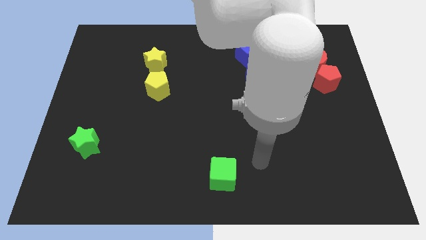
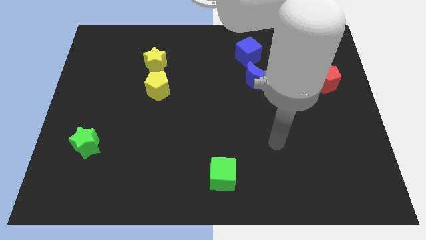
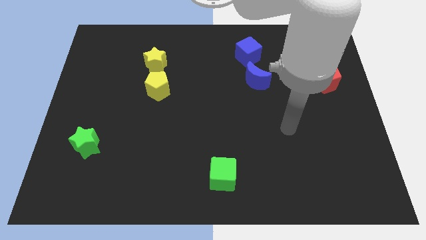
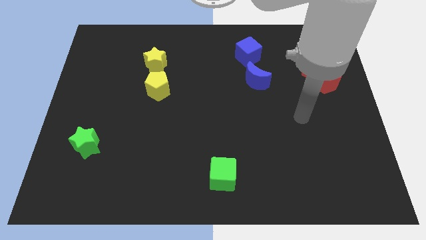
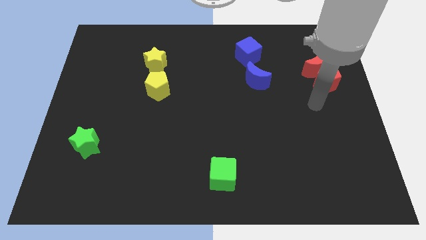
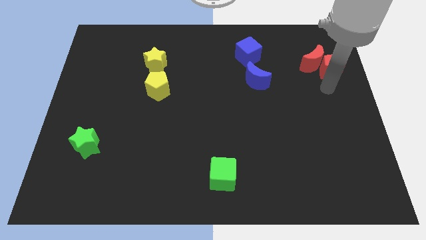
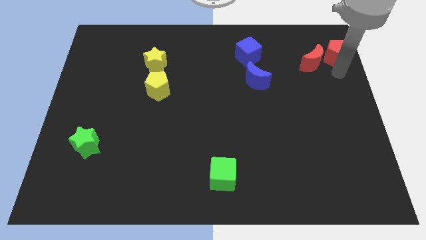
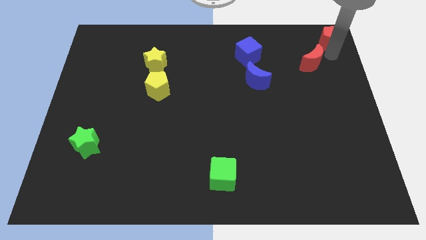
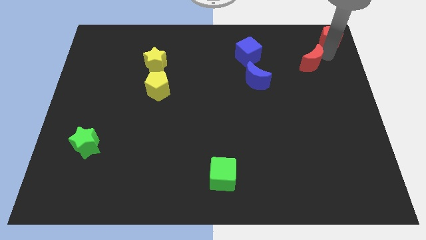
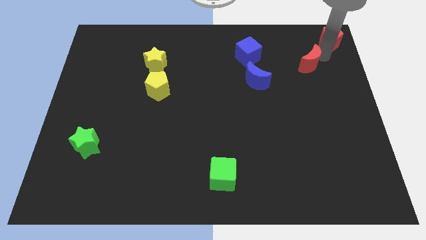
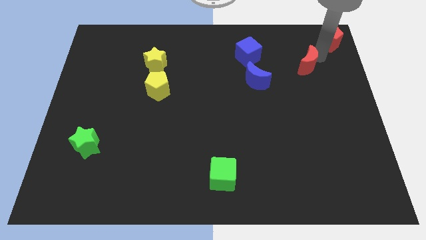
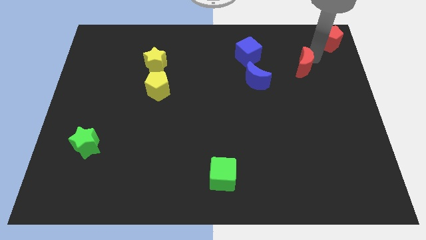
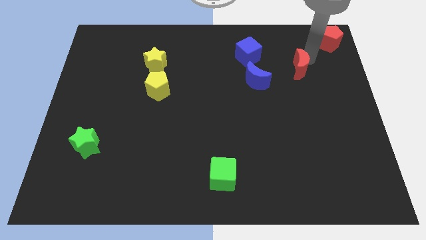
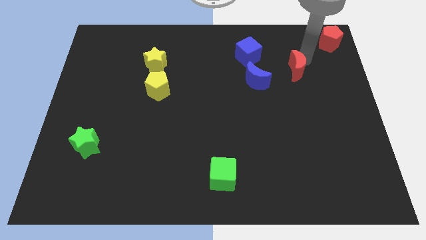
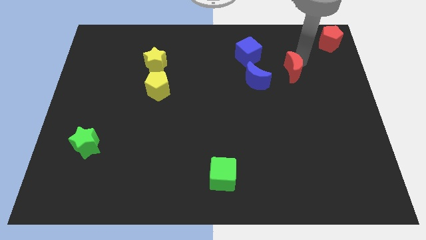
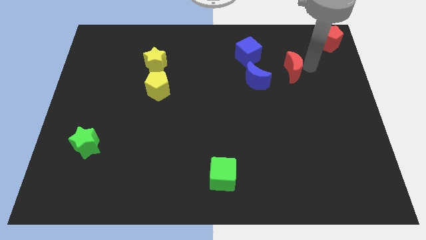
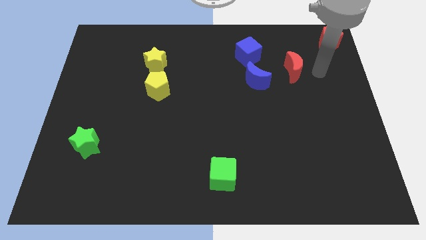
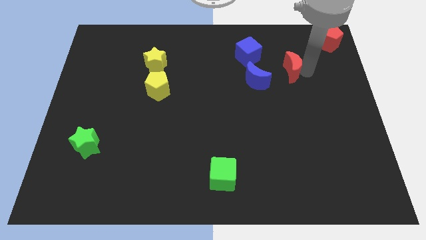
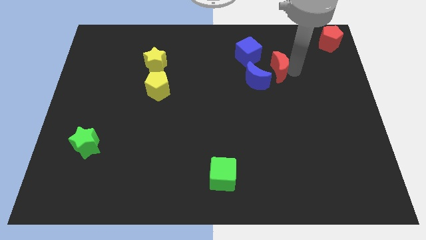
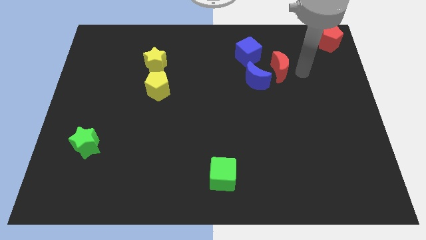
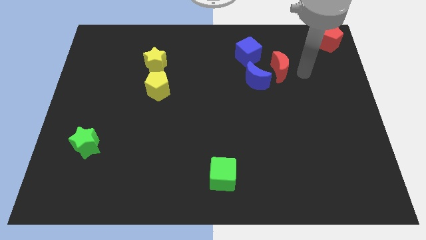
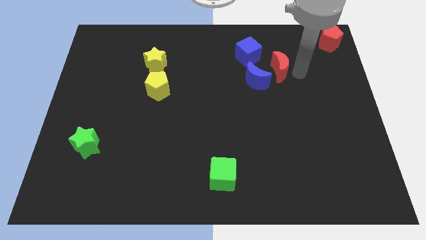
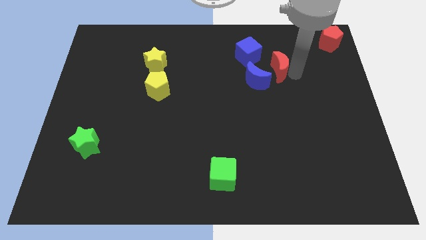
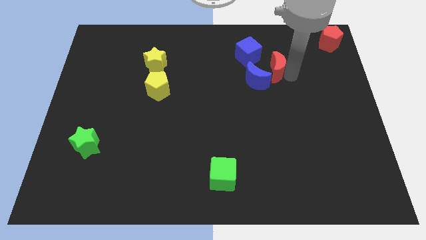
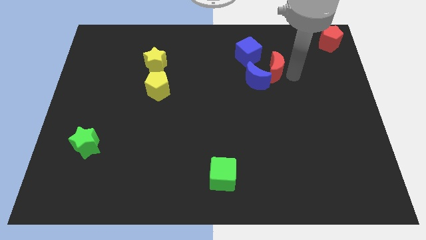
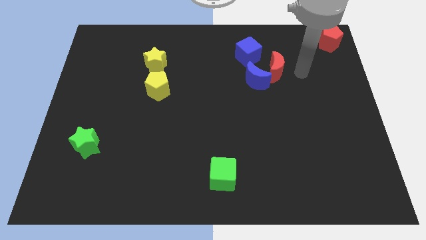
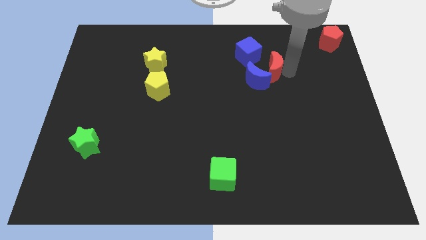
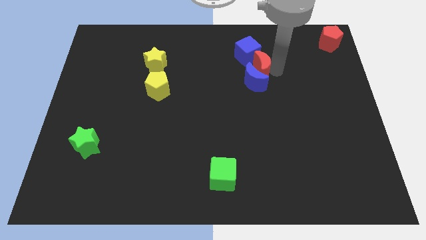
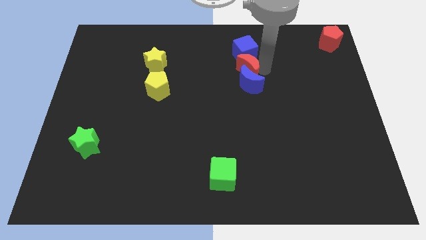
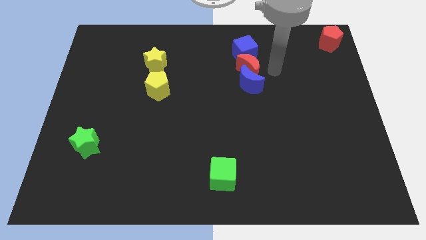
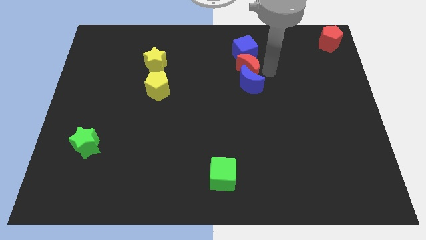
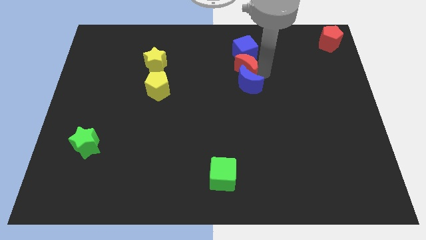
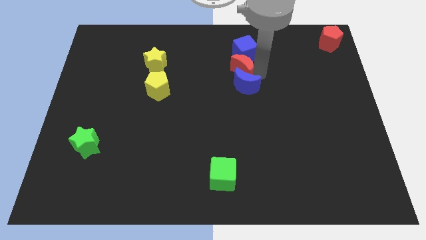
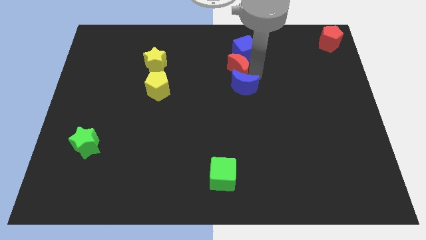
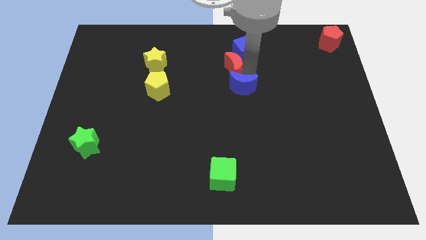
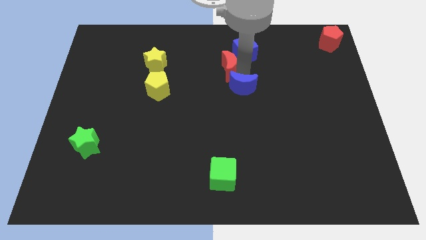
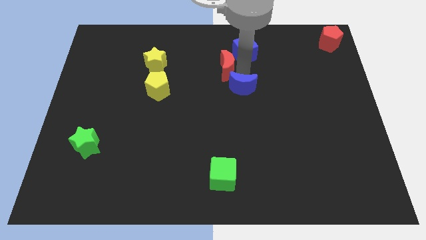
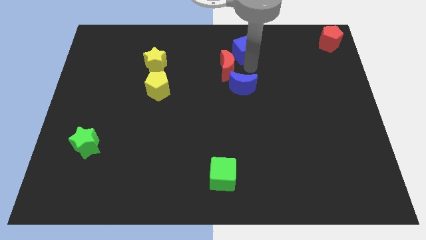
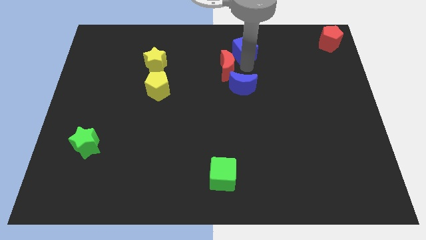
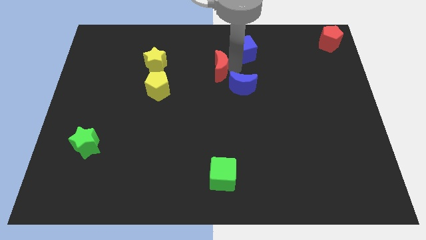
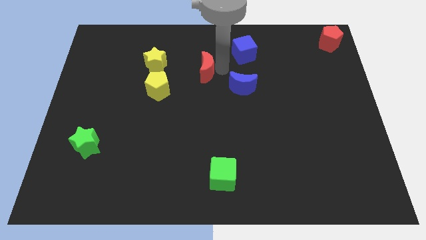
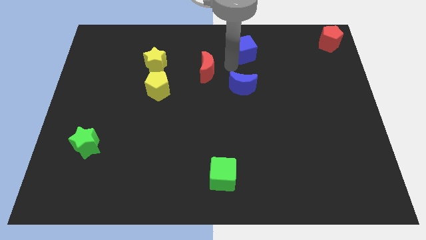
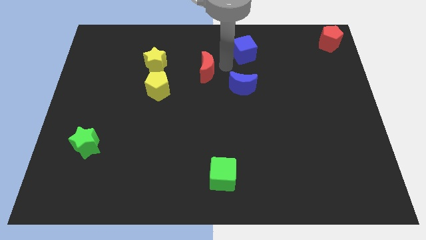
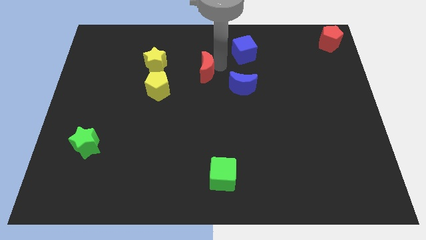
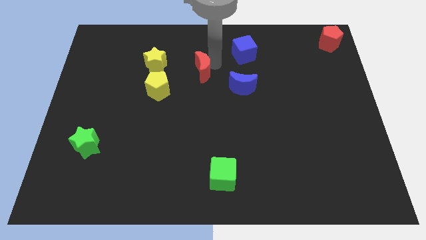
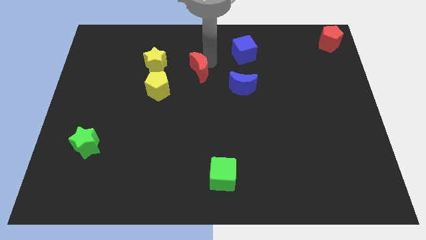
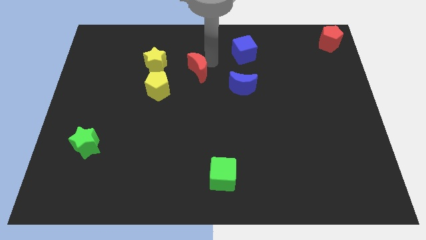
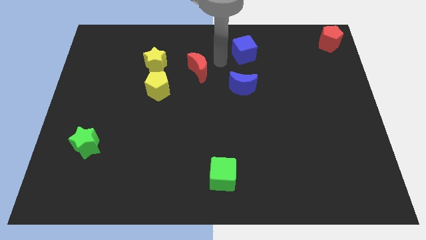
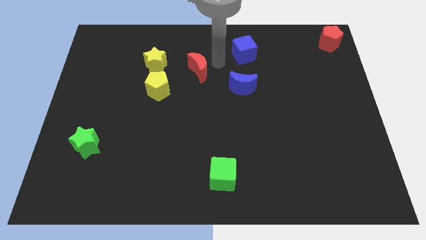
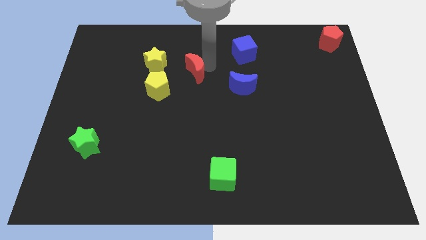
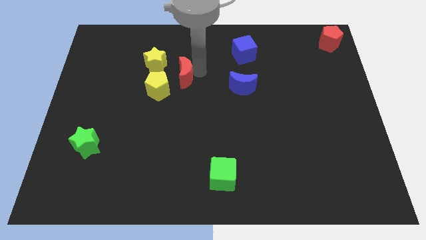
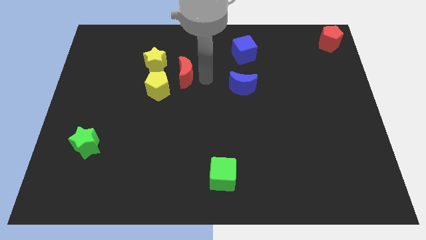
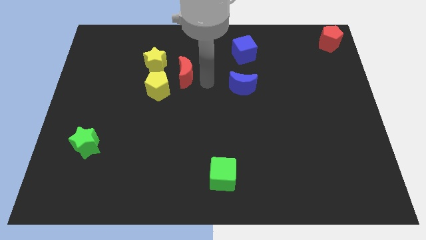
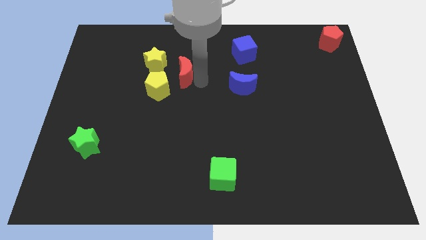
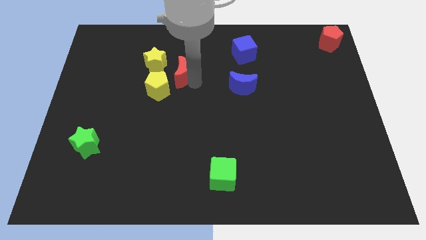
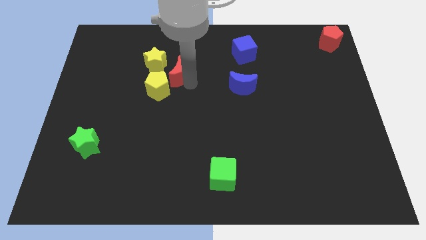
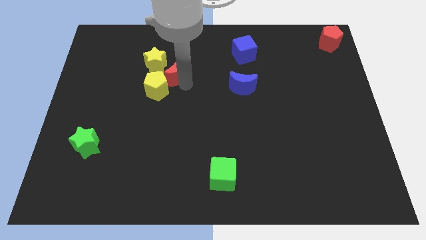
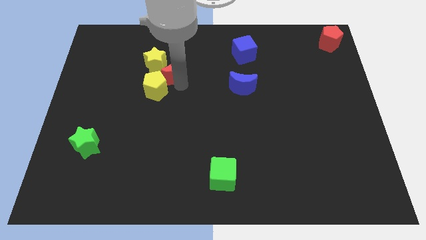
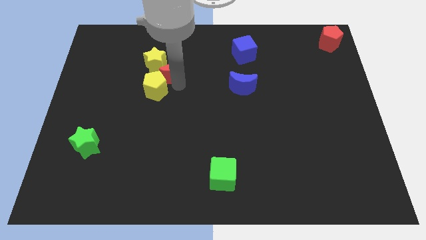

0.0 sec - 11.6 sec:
push the red moon to the yellow star

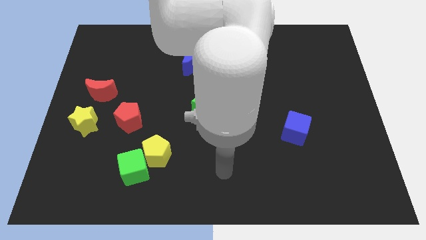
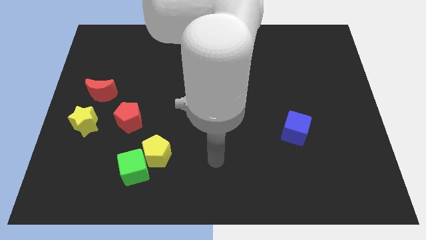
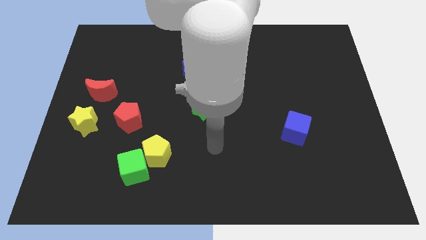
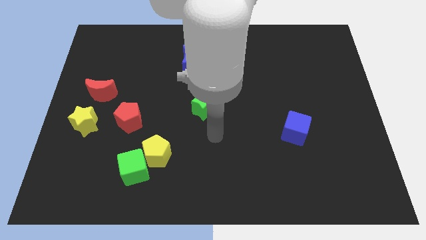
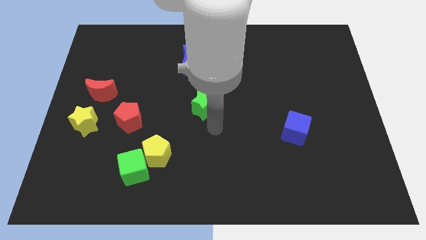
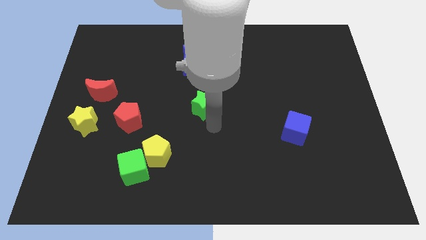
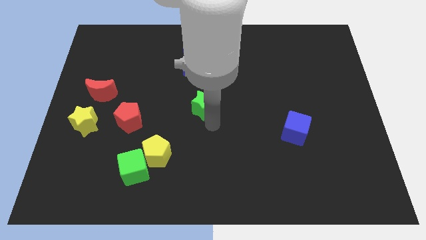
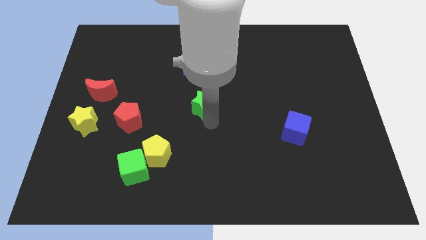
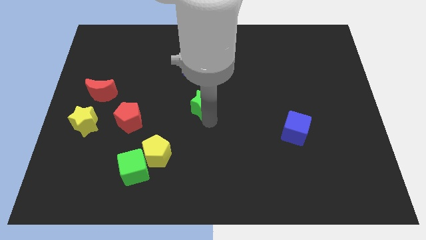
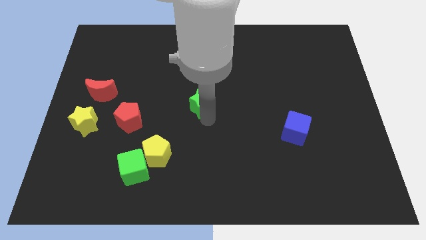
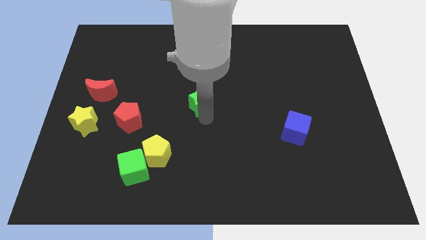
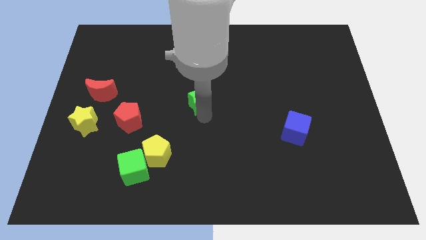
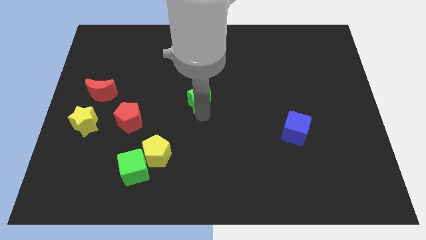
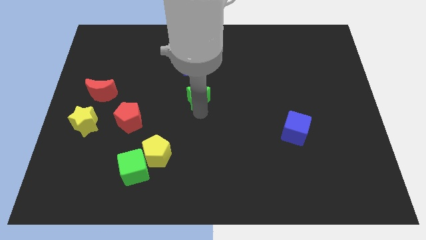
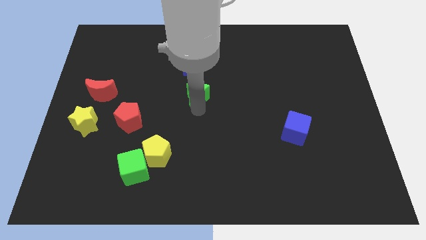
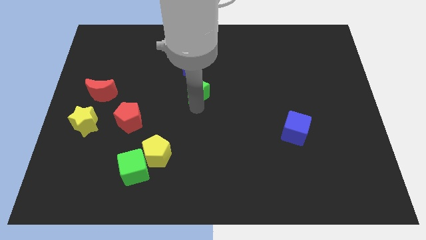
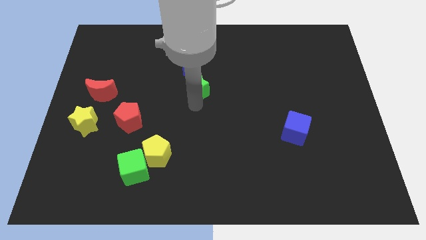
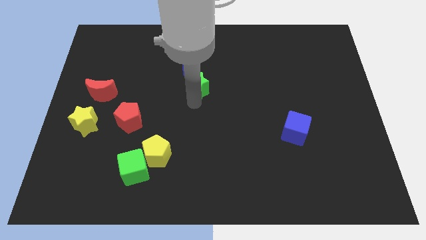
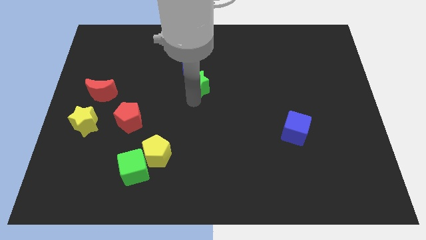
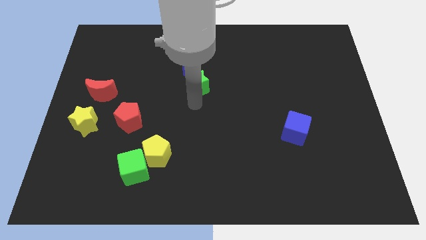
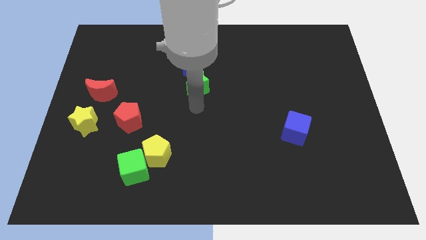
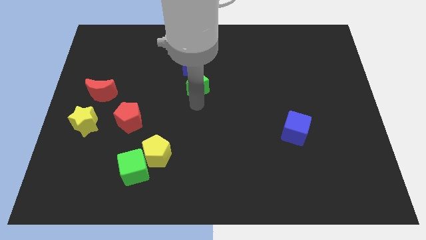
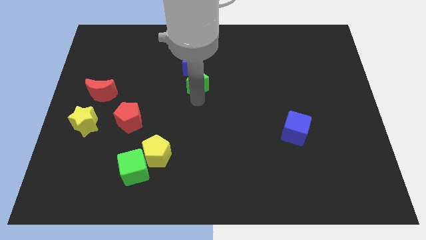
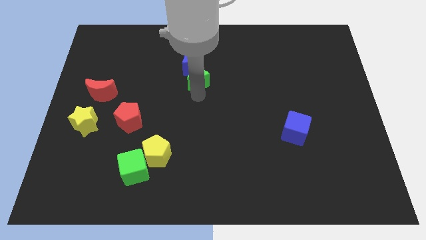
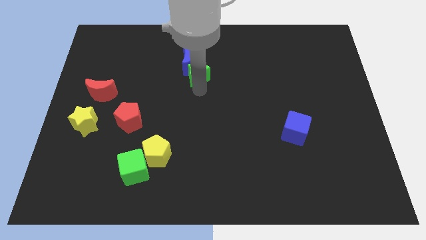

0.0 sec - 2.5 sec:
push the green star close to the blue moon

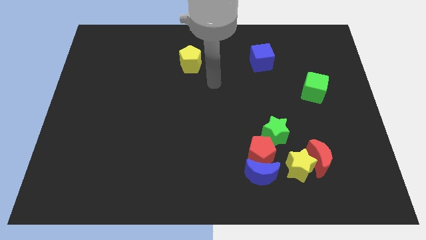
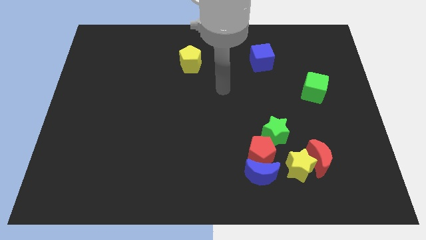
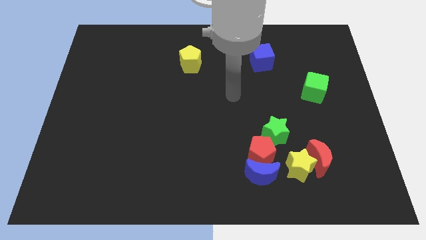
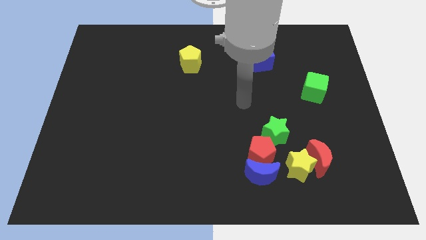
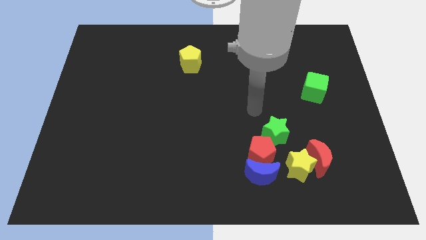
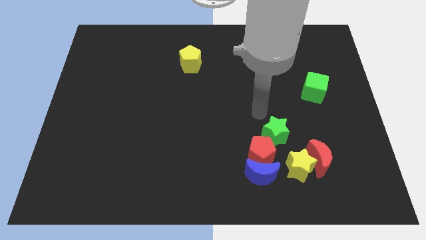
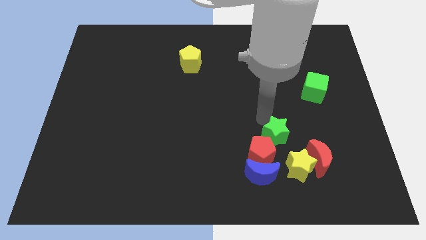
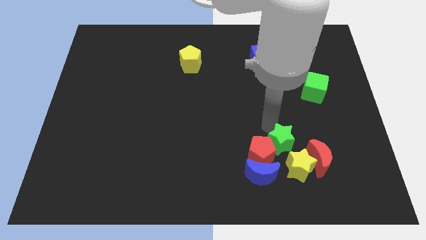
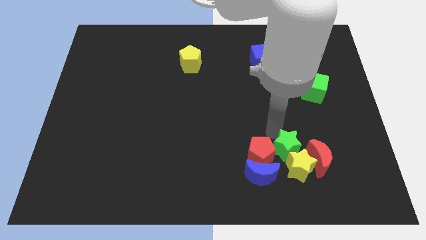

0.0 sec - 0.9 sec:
push the green star close to the yellow star
